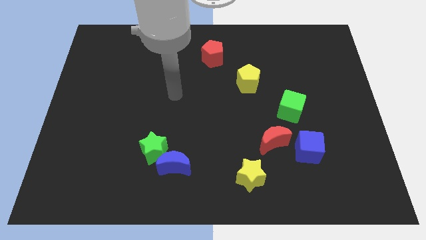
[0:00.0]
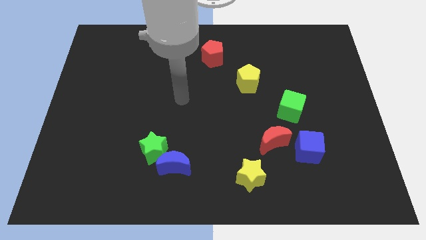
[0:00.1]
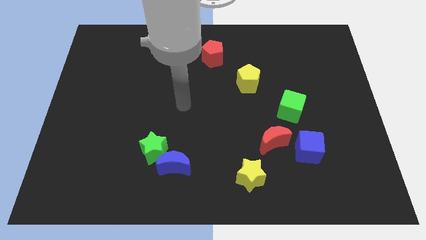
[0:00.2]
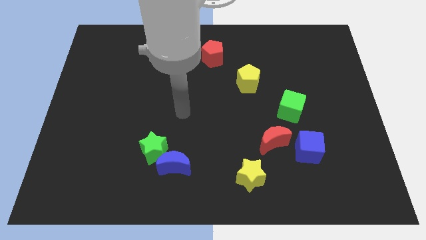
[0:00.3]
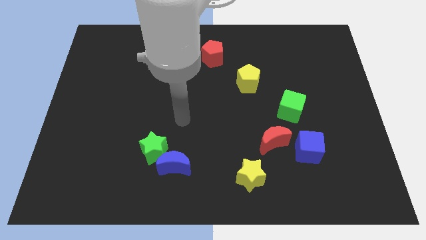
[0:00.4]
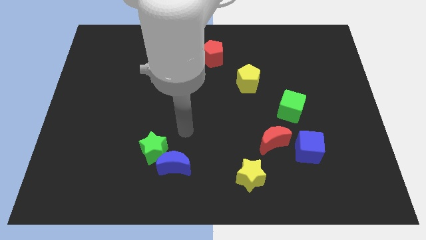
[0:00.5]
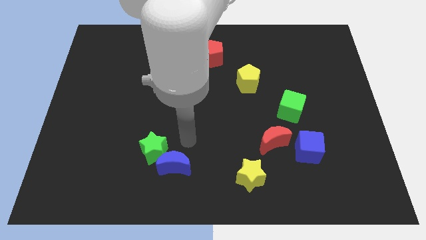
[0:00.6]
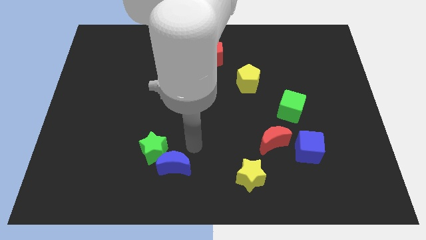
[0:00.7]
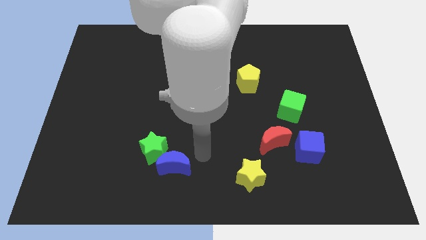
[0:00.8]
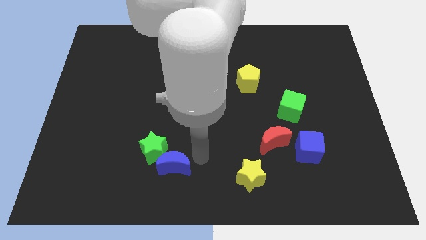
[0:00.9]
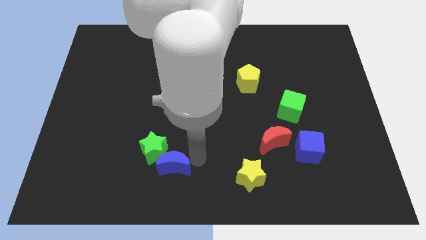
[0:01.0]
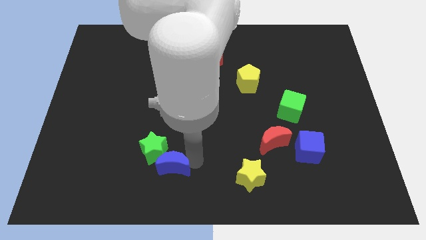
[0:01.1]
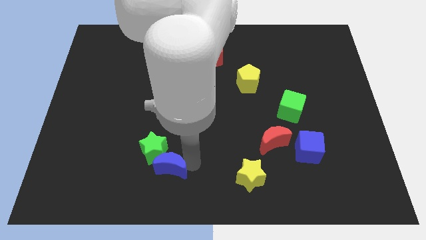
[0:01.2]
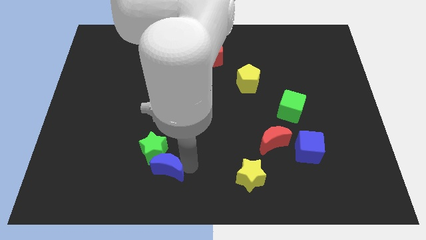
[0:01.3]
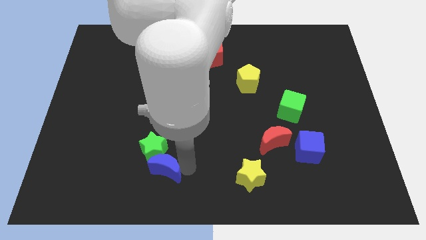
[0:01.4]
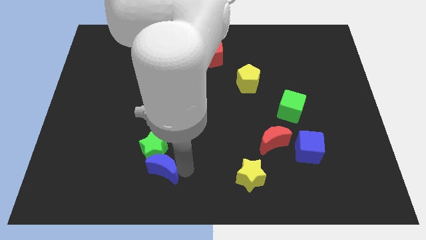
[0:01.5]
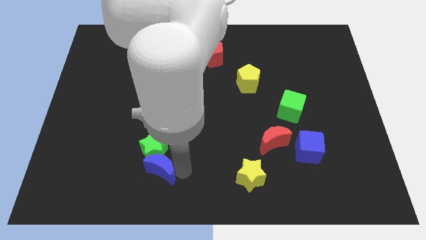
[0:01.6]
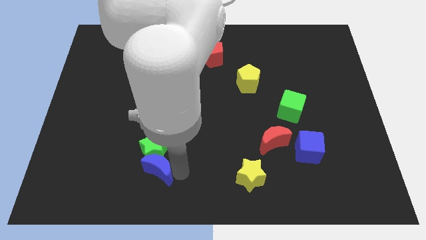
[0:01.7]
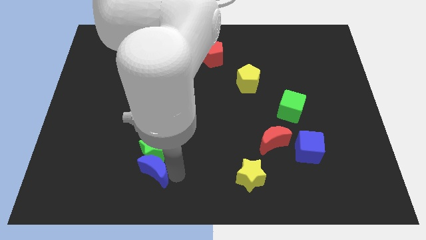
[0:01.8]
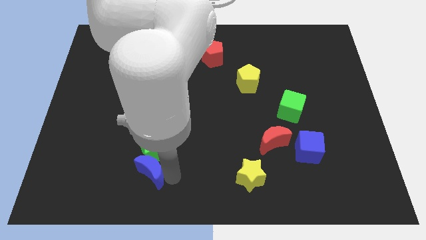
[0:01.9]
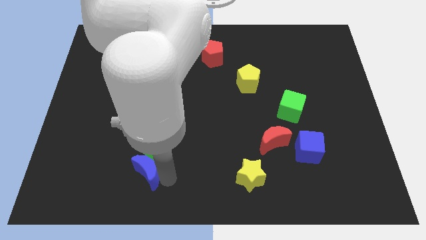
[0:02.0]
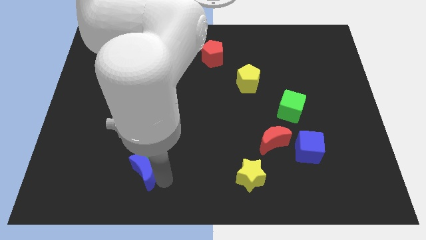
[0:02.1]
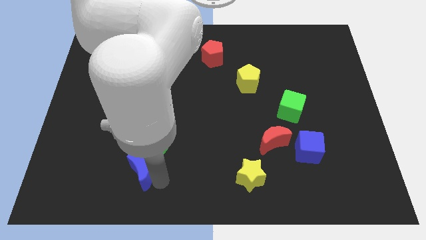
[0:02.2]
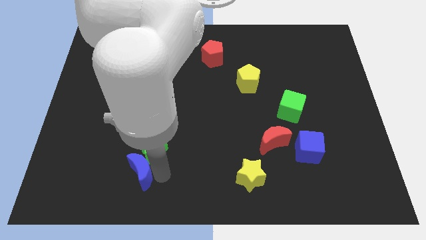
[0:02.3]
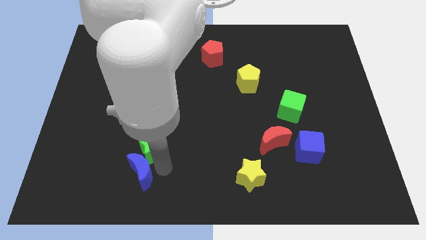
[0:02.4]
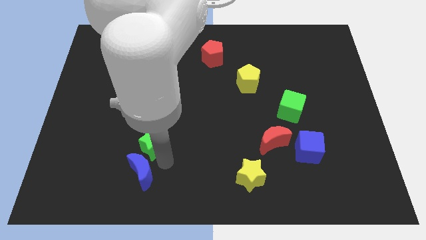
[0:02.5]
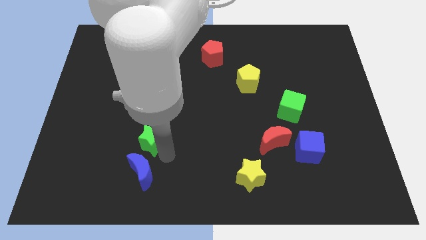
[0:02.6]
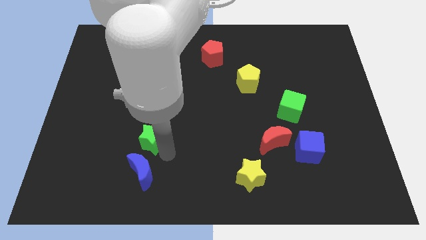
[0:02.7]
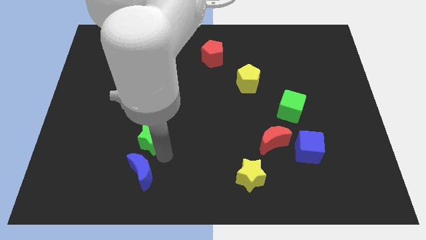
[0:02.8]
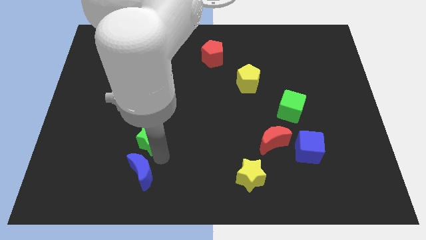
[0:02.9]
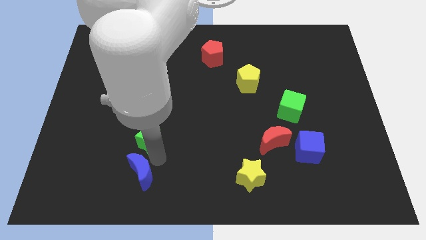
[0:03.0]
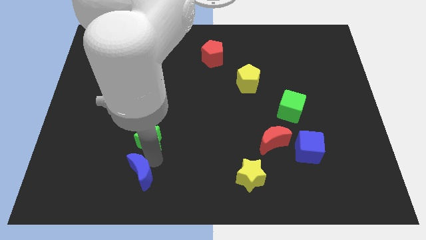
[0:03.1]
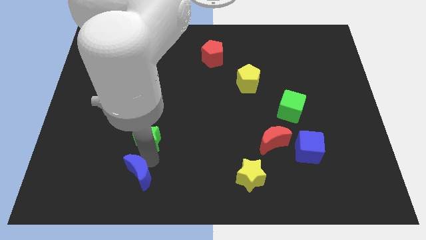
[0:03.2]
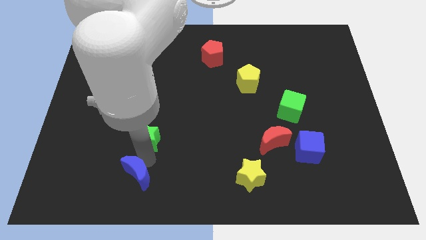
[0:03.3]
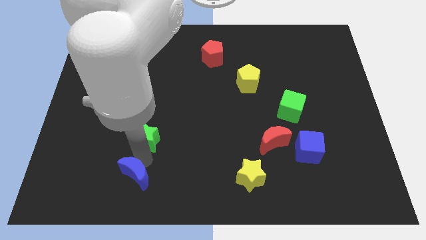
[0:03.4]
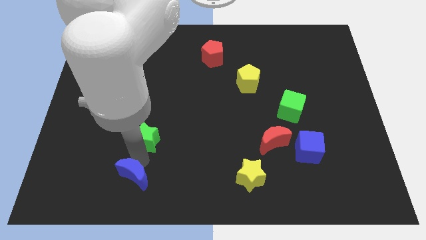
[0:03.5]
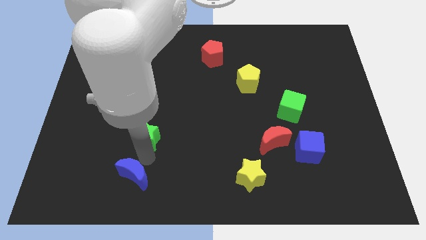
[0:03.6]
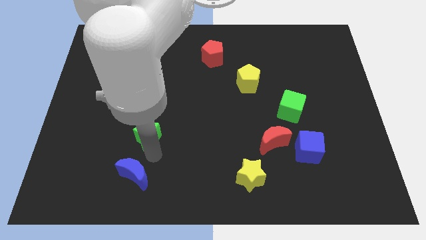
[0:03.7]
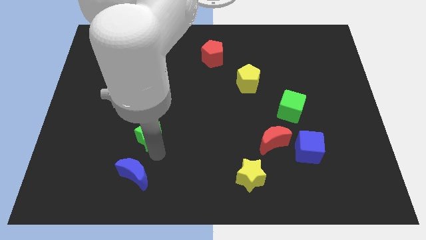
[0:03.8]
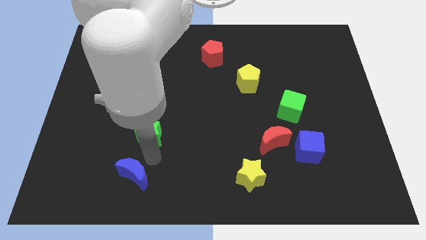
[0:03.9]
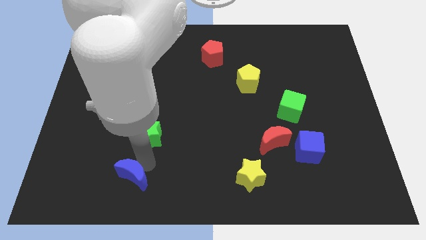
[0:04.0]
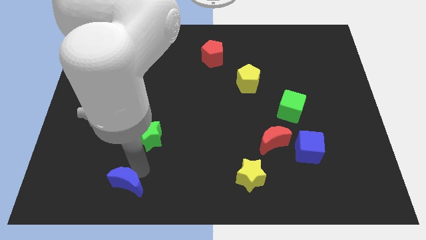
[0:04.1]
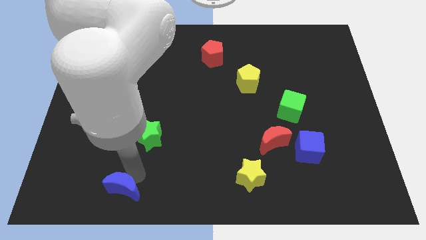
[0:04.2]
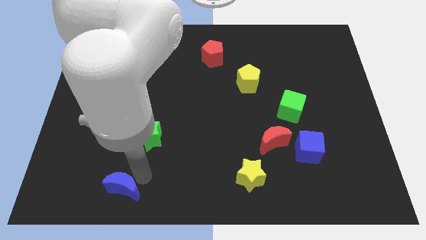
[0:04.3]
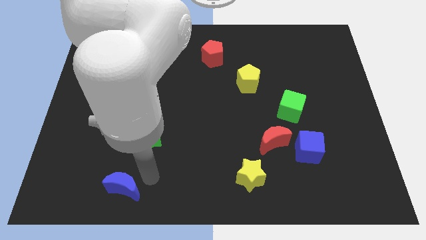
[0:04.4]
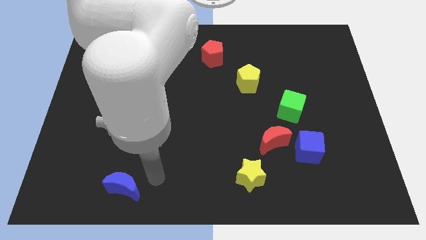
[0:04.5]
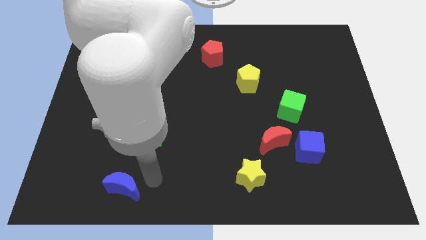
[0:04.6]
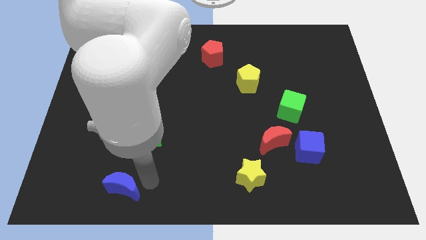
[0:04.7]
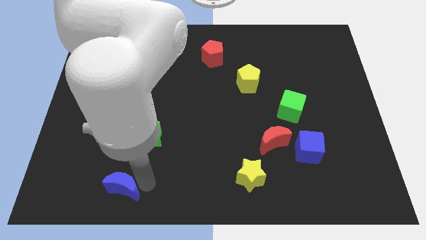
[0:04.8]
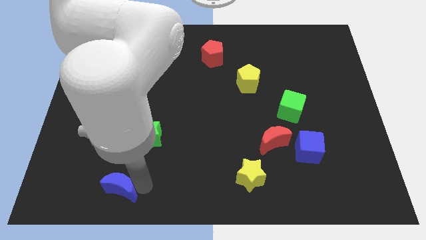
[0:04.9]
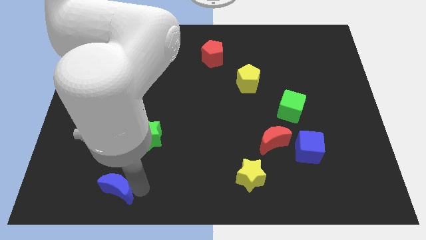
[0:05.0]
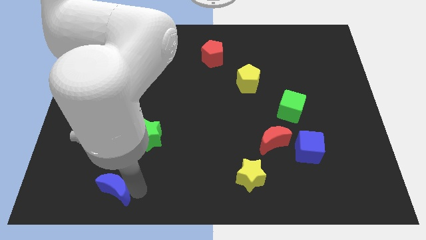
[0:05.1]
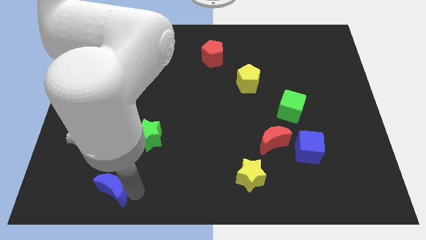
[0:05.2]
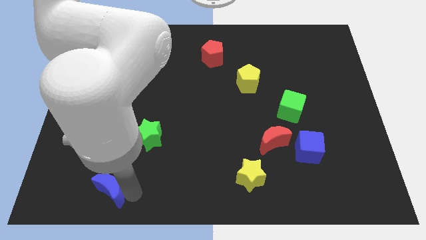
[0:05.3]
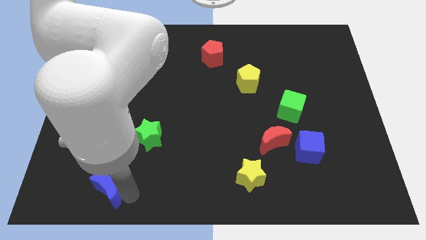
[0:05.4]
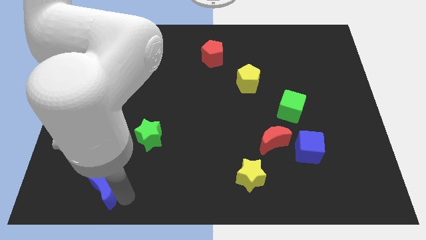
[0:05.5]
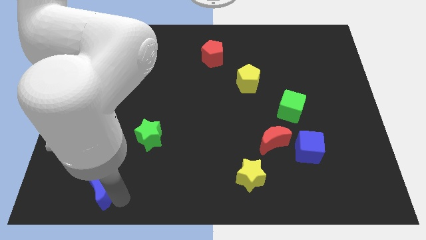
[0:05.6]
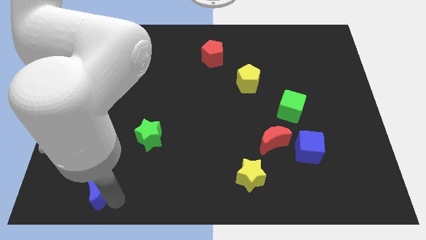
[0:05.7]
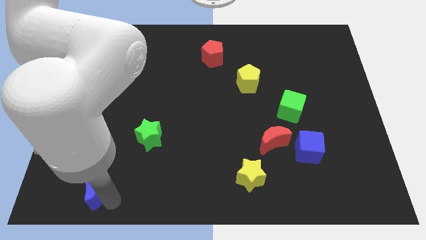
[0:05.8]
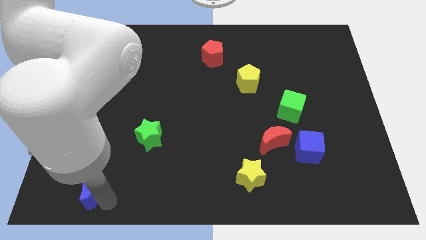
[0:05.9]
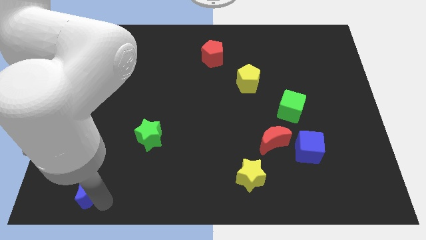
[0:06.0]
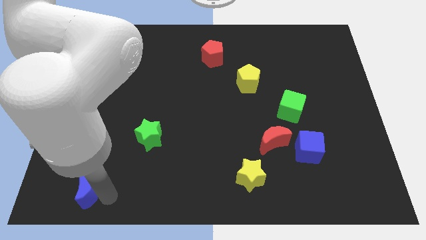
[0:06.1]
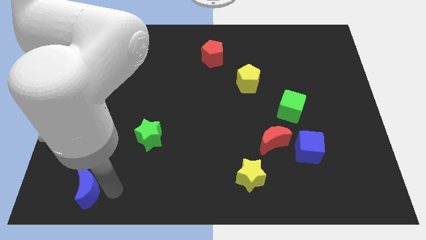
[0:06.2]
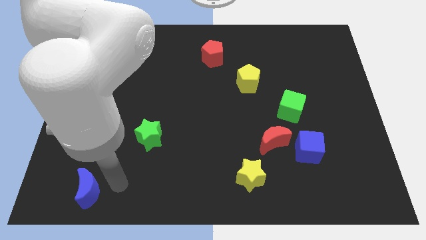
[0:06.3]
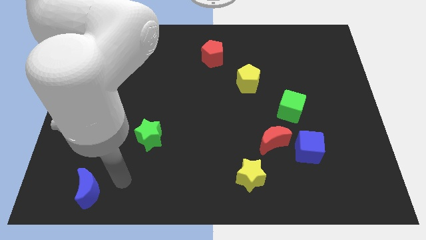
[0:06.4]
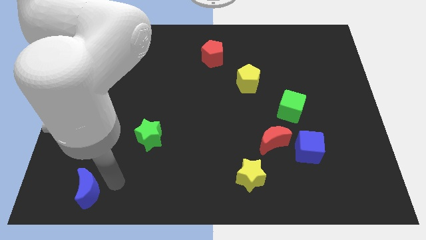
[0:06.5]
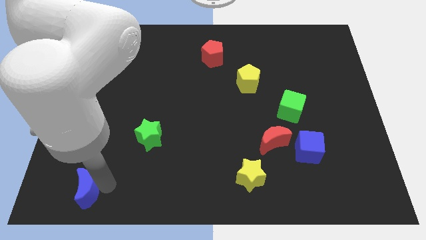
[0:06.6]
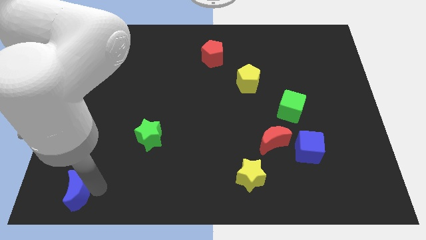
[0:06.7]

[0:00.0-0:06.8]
push the blue moon to the bottom left
